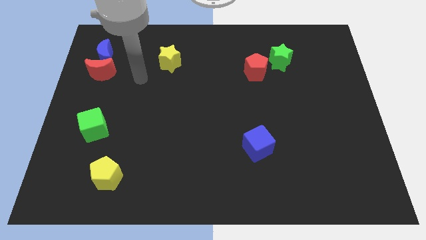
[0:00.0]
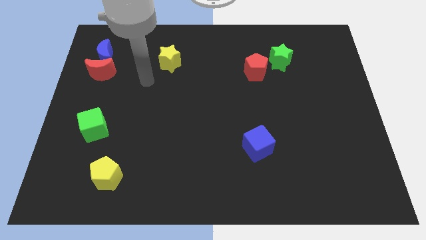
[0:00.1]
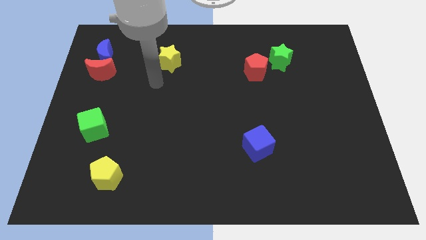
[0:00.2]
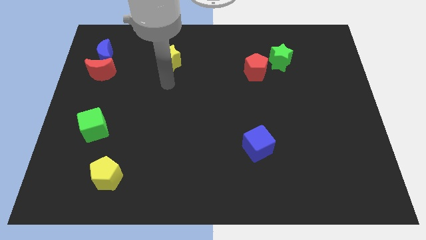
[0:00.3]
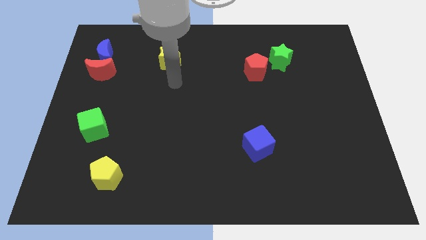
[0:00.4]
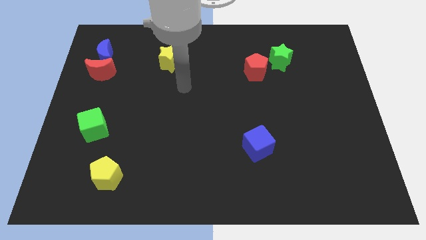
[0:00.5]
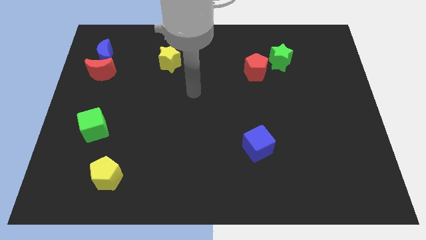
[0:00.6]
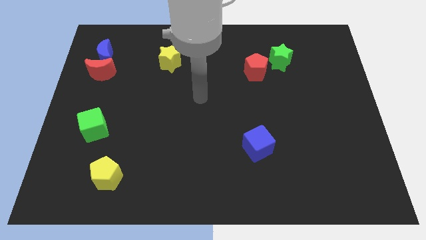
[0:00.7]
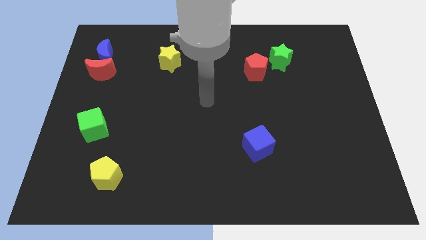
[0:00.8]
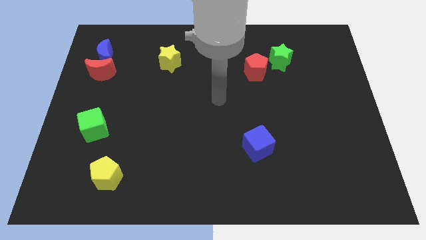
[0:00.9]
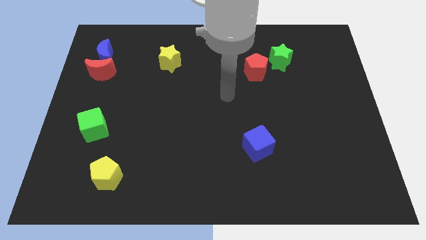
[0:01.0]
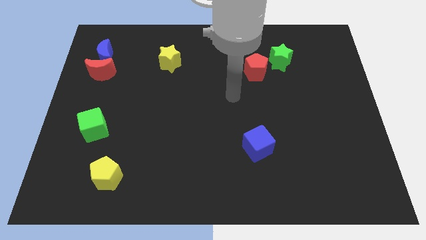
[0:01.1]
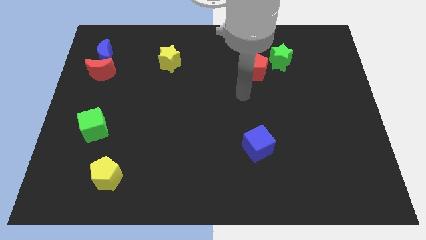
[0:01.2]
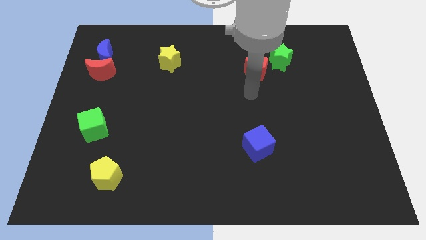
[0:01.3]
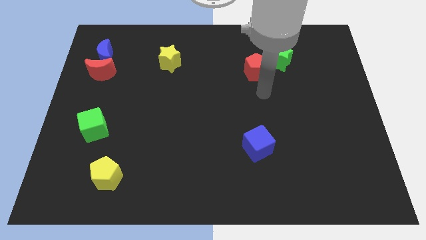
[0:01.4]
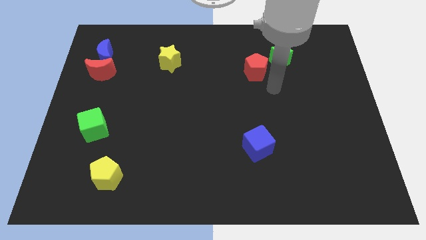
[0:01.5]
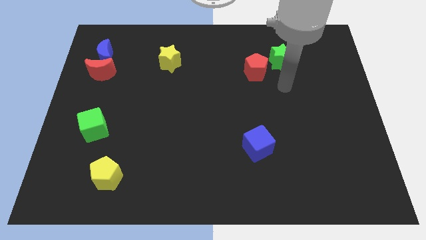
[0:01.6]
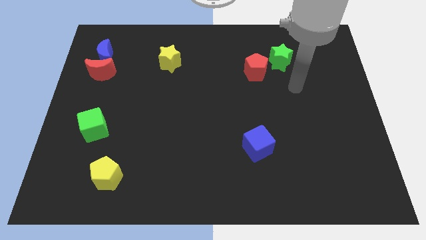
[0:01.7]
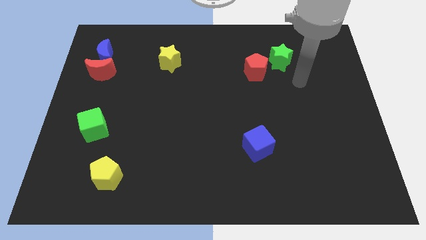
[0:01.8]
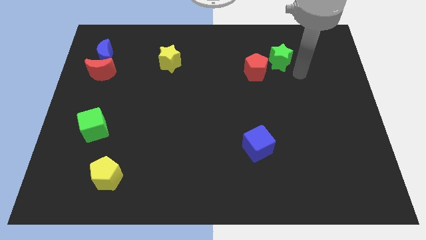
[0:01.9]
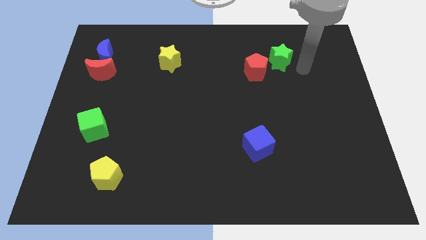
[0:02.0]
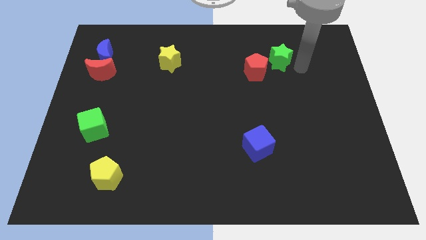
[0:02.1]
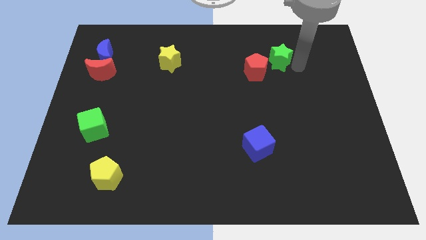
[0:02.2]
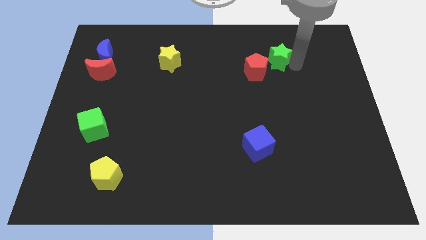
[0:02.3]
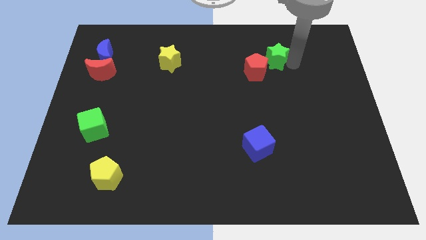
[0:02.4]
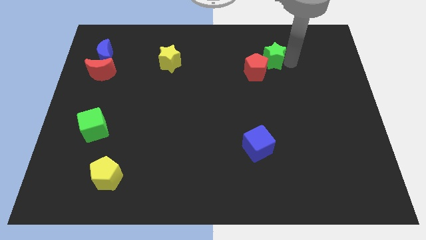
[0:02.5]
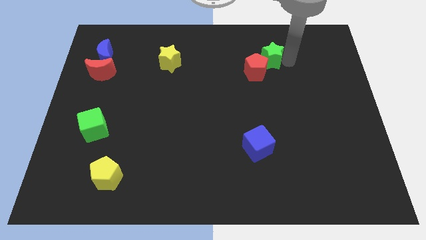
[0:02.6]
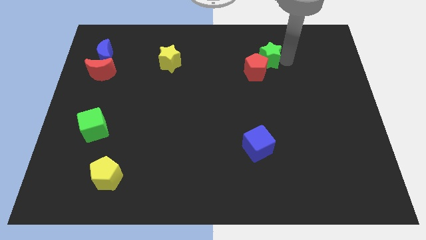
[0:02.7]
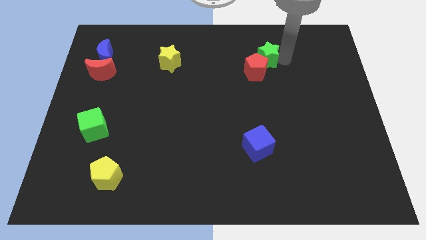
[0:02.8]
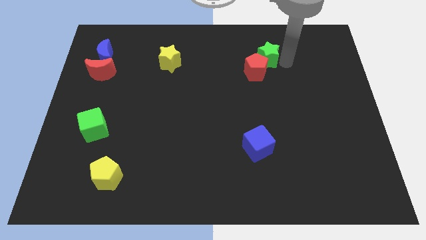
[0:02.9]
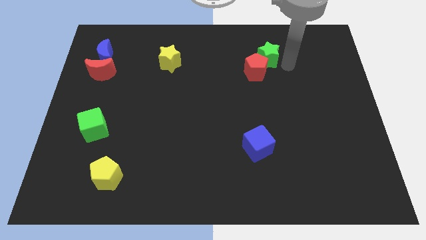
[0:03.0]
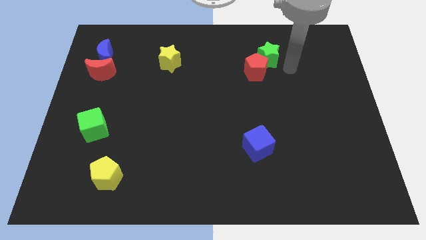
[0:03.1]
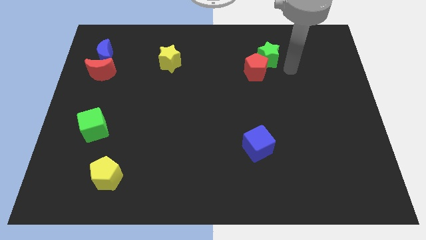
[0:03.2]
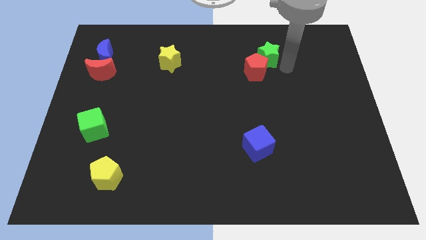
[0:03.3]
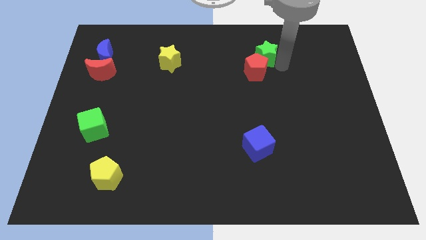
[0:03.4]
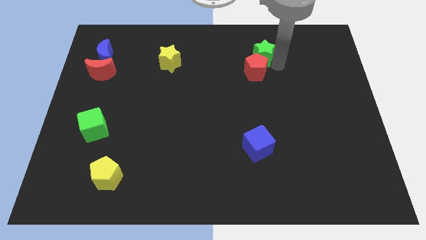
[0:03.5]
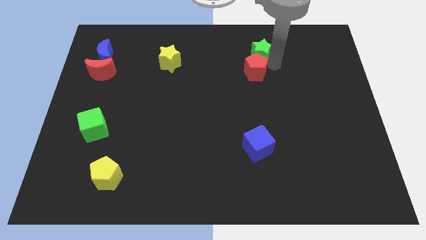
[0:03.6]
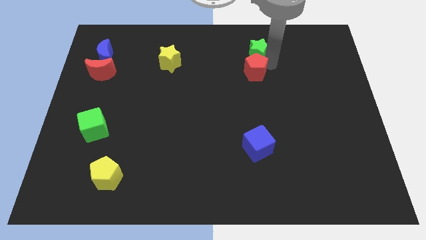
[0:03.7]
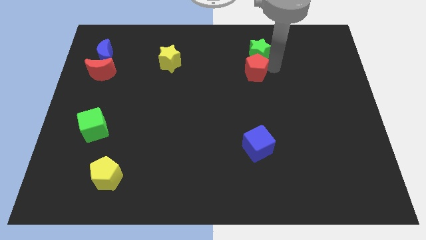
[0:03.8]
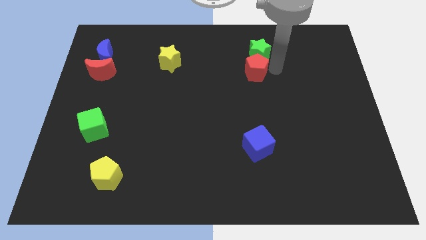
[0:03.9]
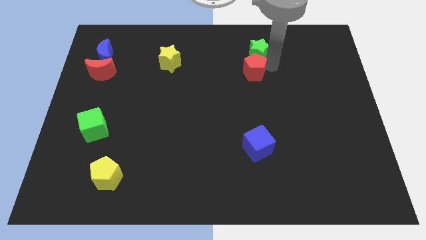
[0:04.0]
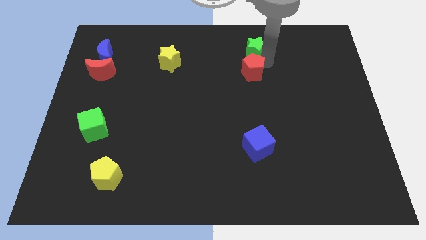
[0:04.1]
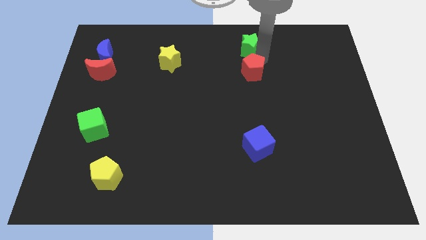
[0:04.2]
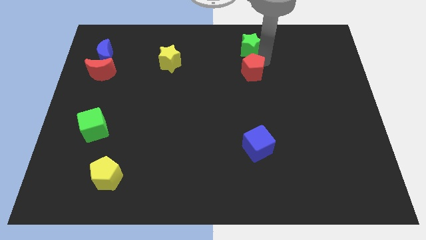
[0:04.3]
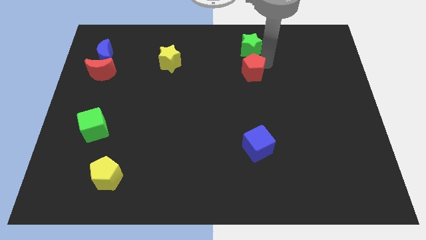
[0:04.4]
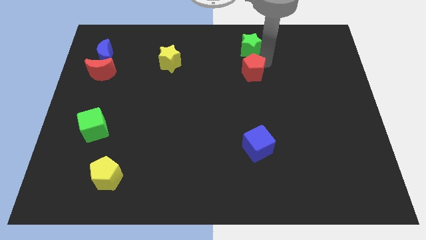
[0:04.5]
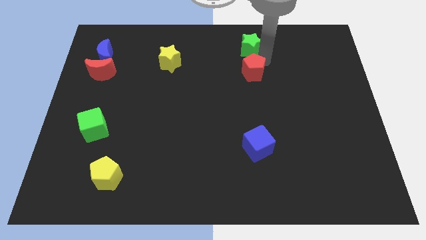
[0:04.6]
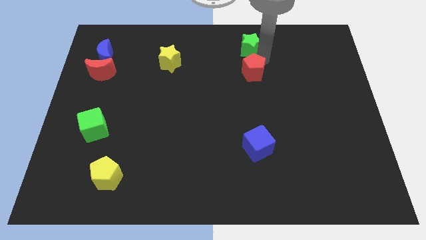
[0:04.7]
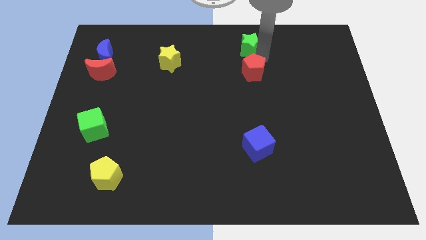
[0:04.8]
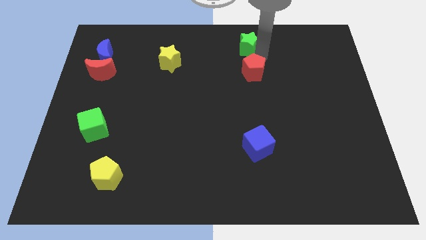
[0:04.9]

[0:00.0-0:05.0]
push the green star to the top side

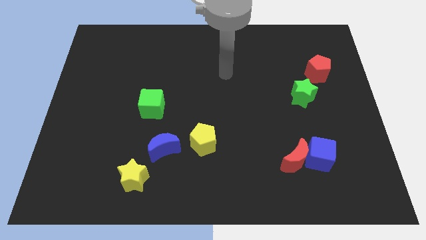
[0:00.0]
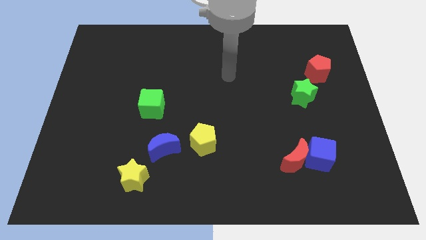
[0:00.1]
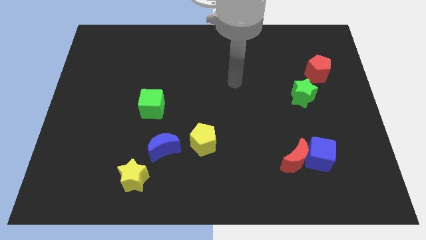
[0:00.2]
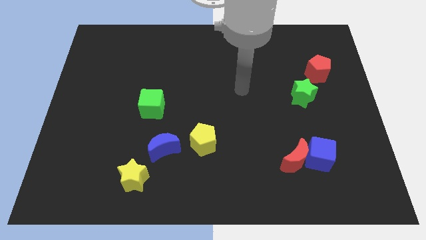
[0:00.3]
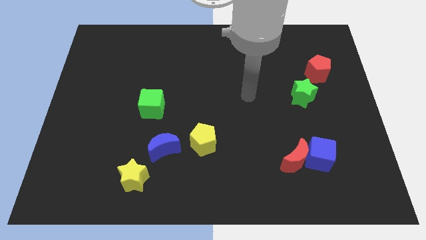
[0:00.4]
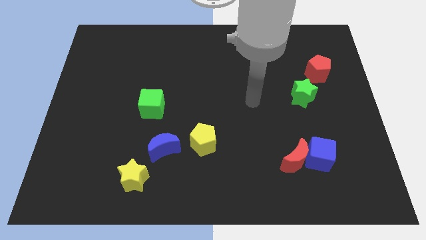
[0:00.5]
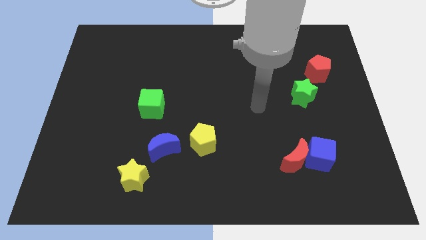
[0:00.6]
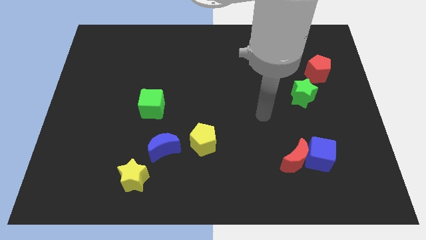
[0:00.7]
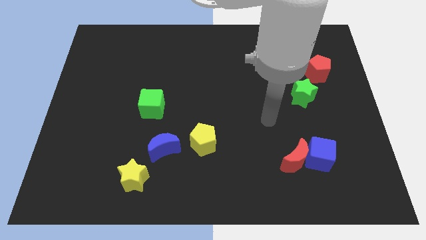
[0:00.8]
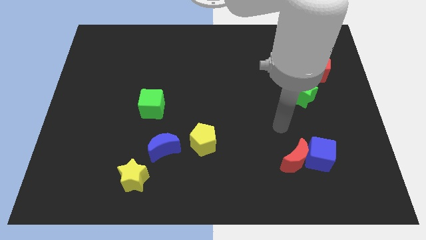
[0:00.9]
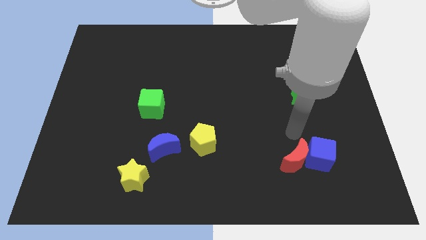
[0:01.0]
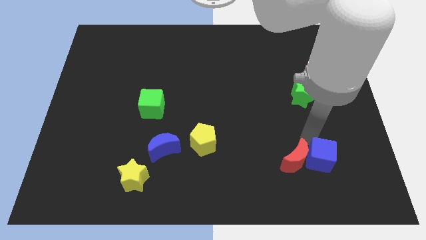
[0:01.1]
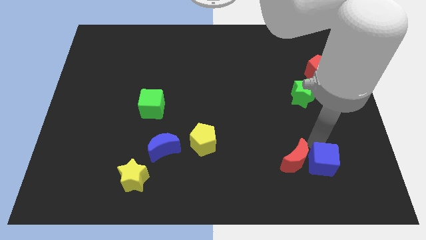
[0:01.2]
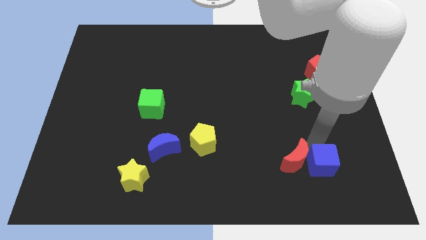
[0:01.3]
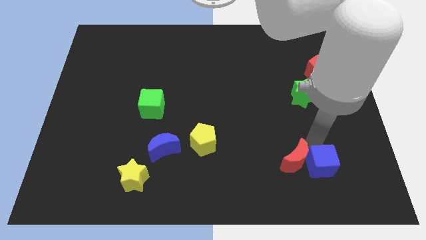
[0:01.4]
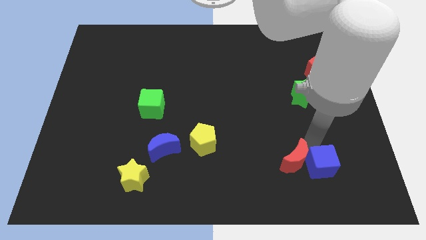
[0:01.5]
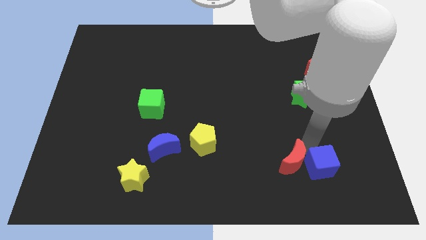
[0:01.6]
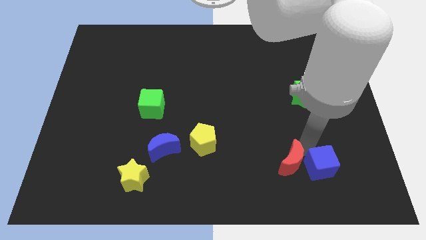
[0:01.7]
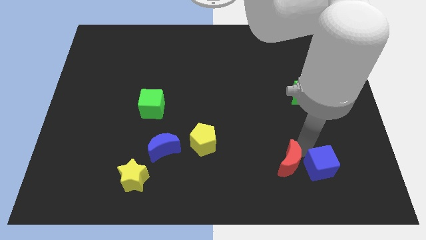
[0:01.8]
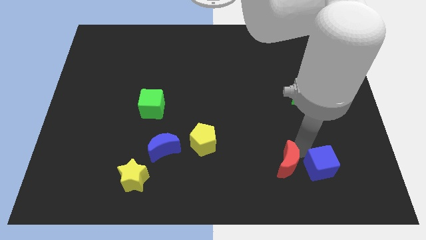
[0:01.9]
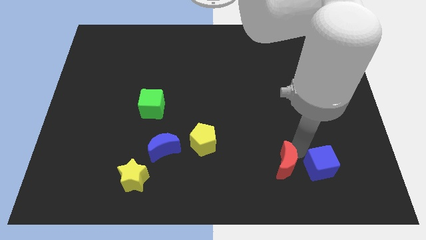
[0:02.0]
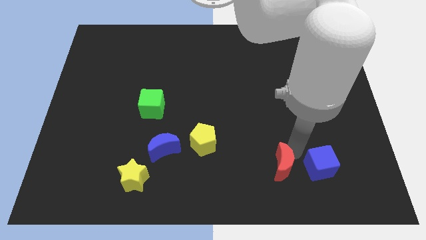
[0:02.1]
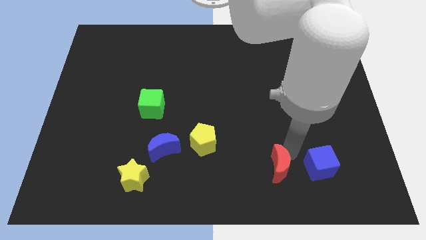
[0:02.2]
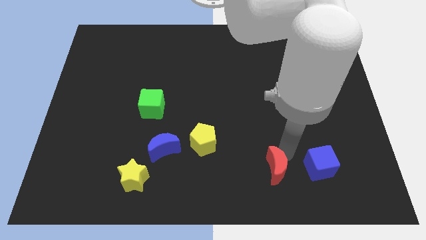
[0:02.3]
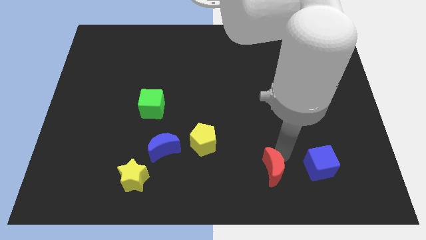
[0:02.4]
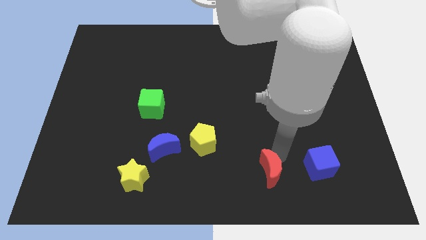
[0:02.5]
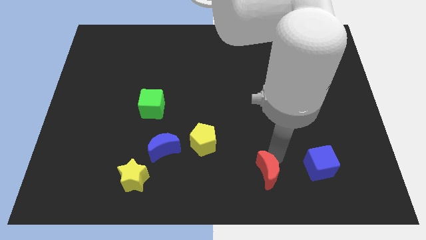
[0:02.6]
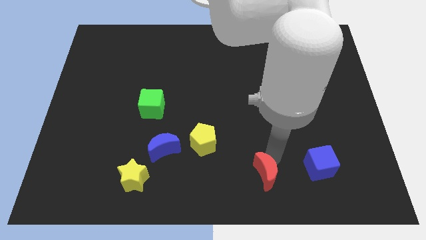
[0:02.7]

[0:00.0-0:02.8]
push the red moon to the bottom side
